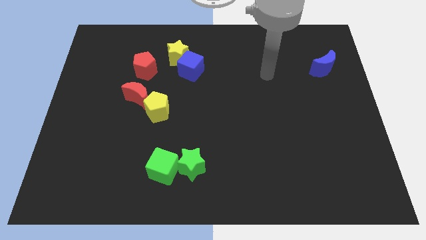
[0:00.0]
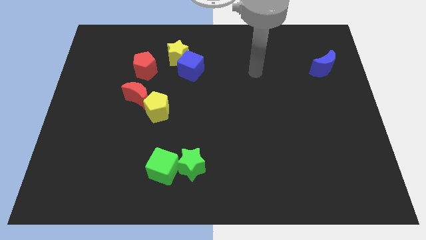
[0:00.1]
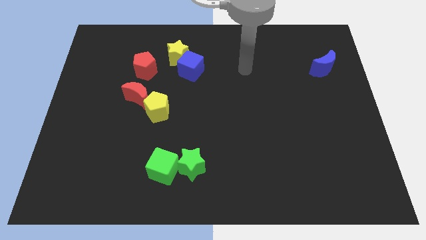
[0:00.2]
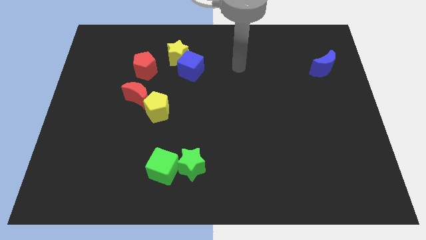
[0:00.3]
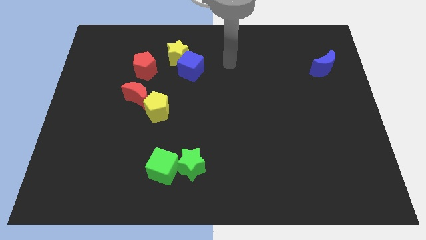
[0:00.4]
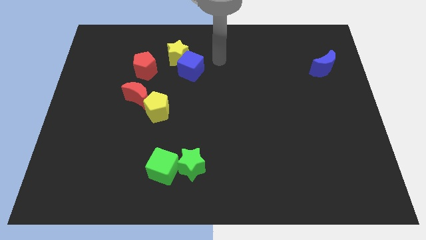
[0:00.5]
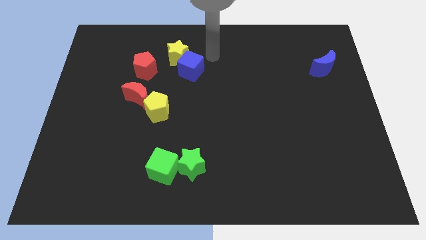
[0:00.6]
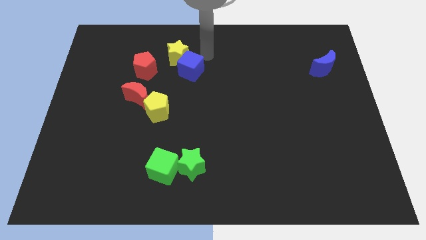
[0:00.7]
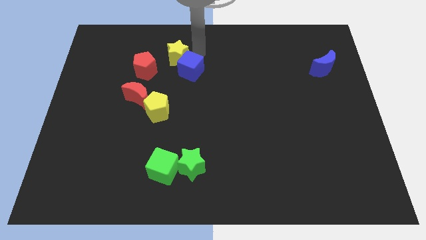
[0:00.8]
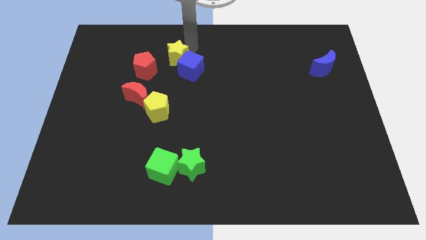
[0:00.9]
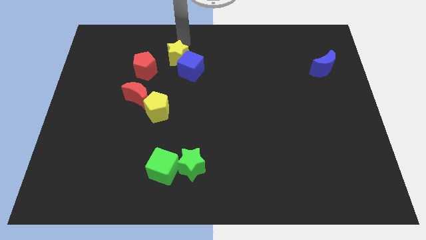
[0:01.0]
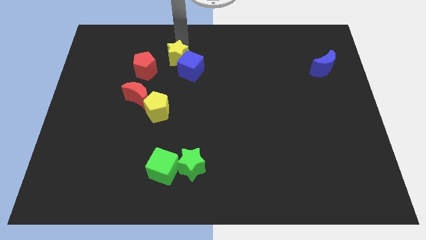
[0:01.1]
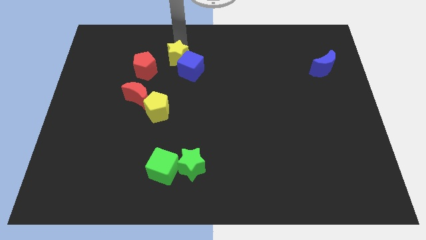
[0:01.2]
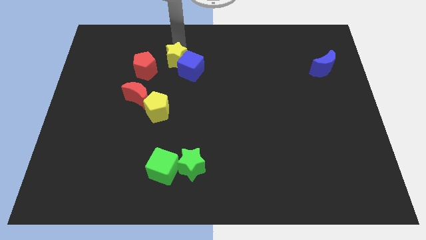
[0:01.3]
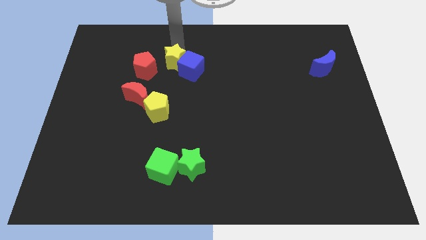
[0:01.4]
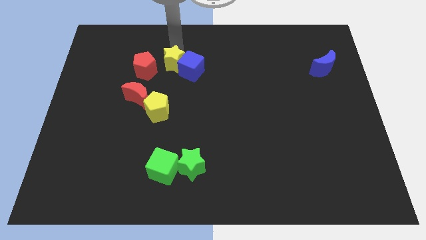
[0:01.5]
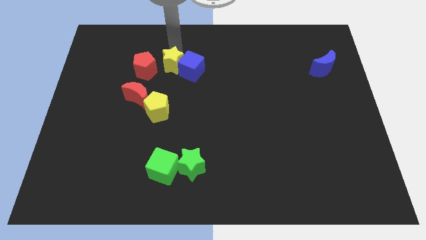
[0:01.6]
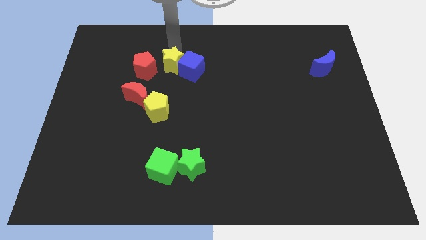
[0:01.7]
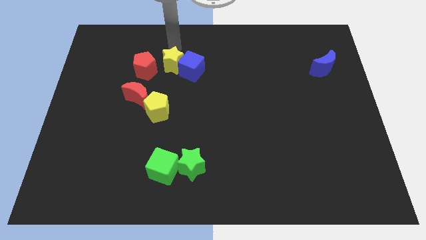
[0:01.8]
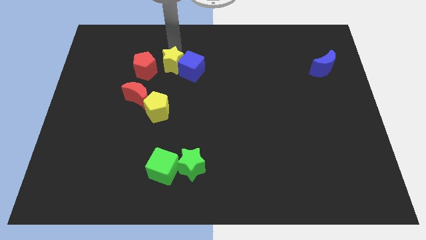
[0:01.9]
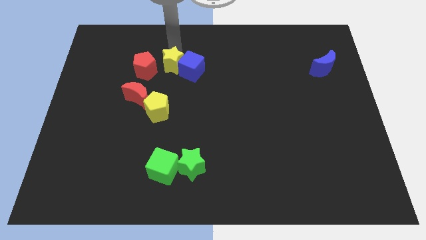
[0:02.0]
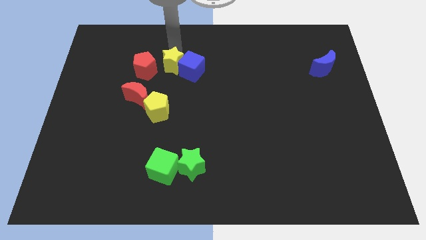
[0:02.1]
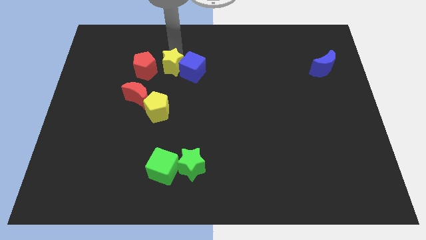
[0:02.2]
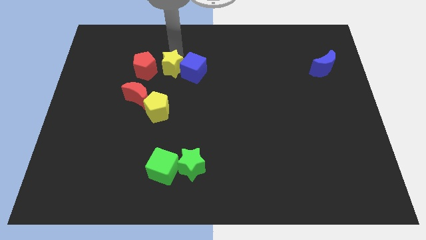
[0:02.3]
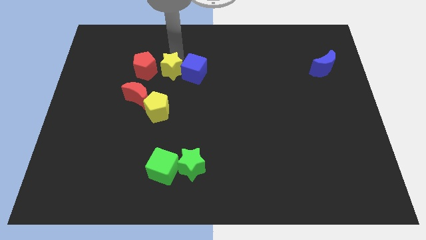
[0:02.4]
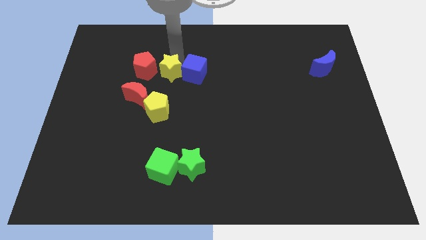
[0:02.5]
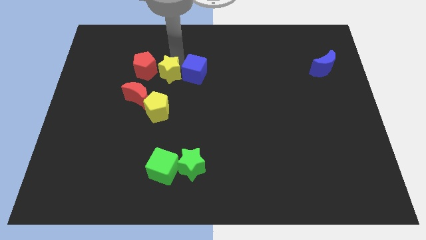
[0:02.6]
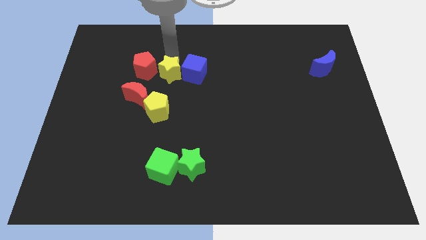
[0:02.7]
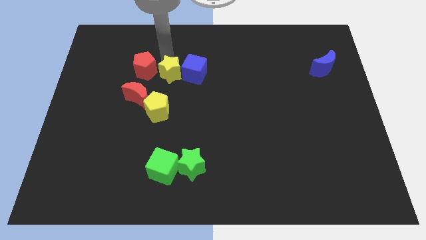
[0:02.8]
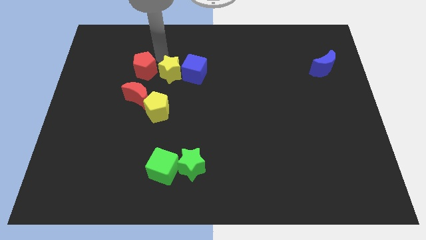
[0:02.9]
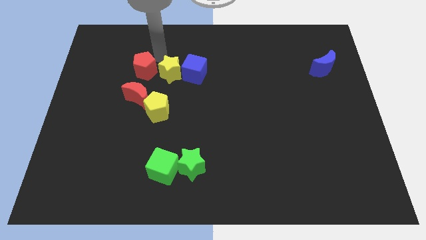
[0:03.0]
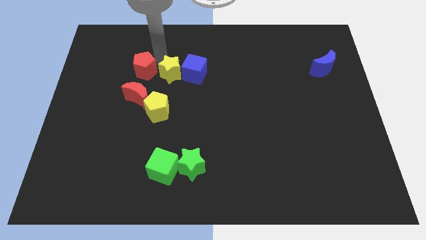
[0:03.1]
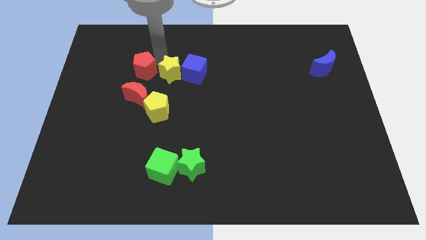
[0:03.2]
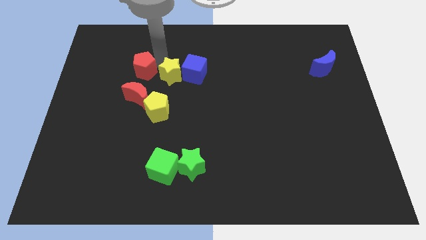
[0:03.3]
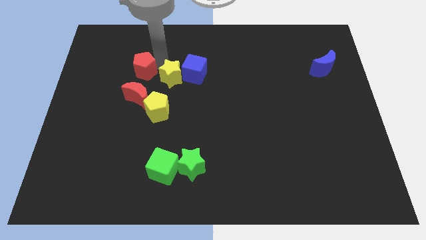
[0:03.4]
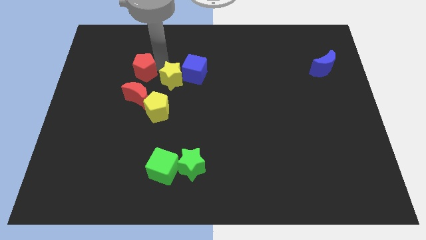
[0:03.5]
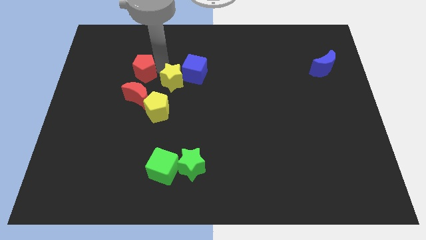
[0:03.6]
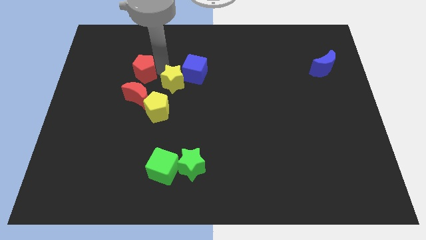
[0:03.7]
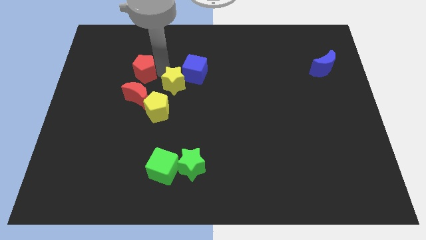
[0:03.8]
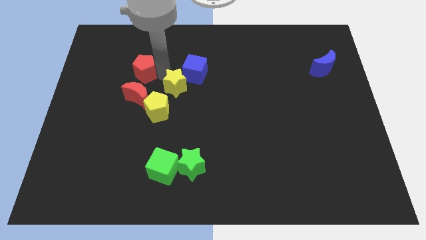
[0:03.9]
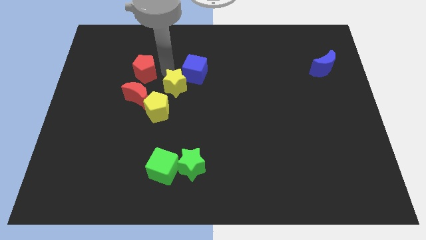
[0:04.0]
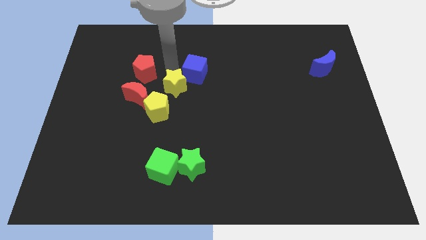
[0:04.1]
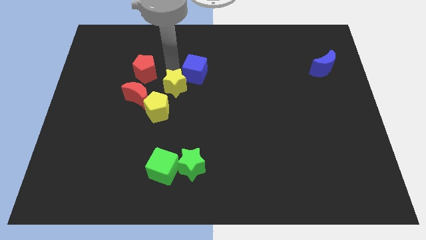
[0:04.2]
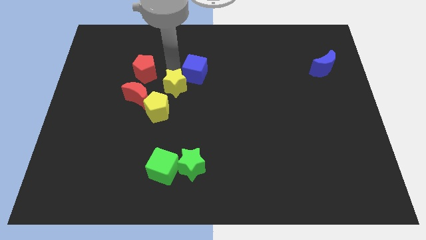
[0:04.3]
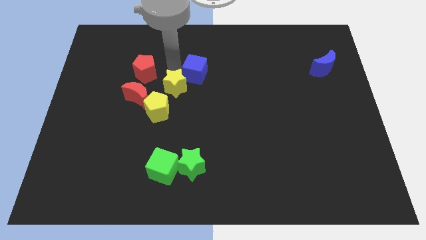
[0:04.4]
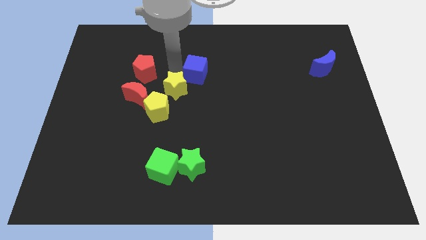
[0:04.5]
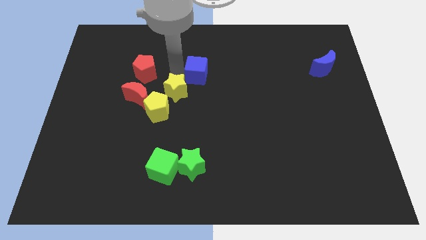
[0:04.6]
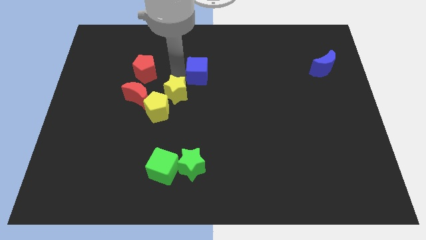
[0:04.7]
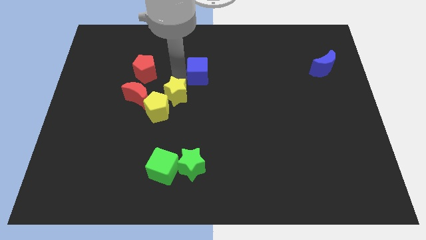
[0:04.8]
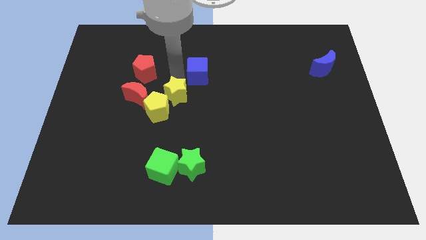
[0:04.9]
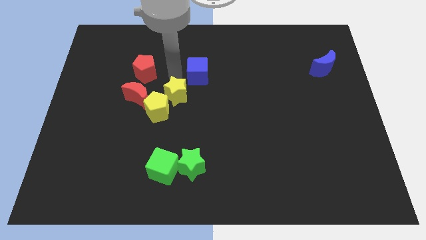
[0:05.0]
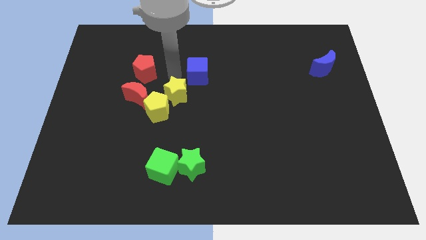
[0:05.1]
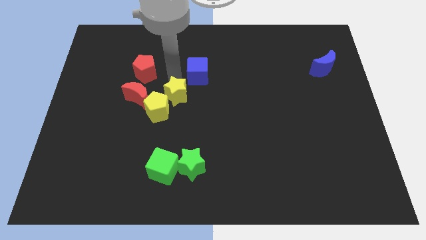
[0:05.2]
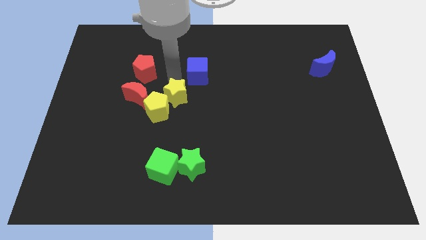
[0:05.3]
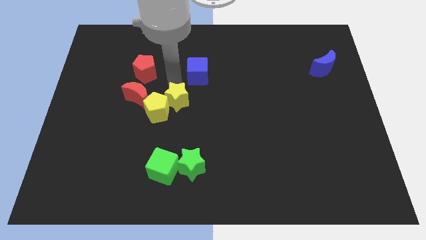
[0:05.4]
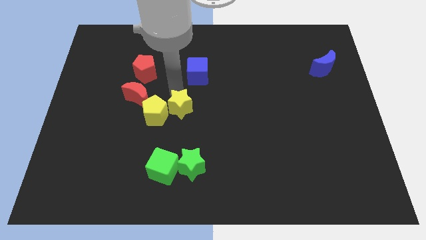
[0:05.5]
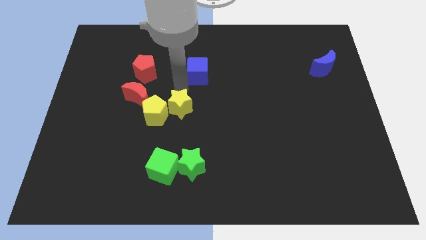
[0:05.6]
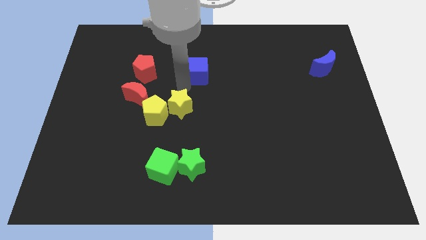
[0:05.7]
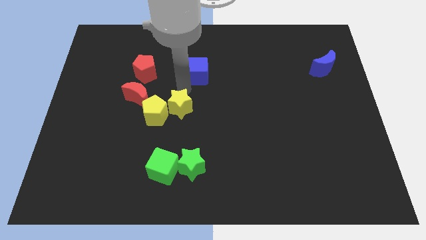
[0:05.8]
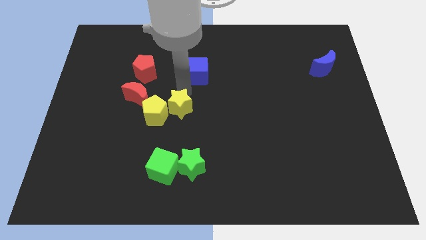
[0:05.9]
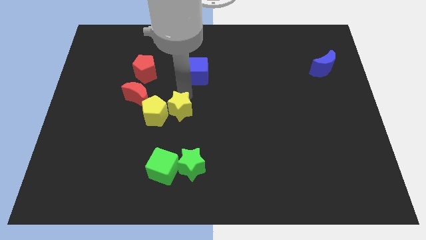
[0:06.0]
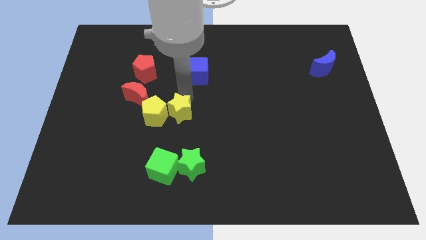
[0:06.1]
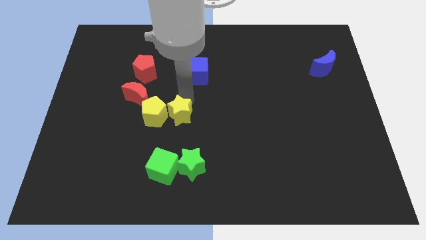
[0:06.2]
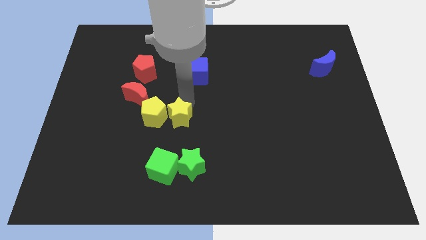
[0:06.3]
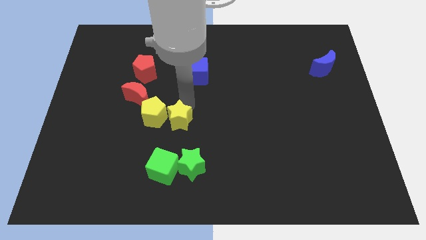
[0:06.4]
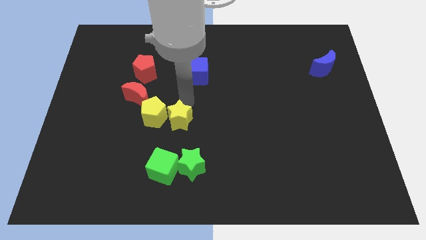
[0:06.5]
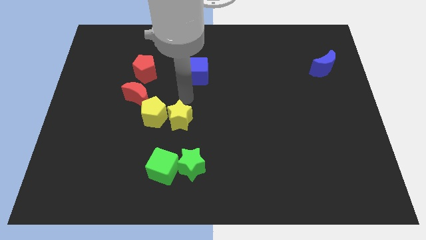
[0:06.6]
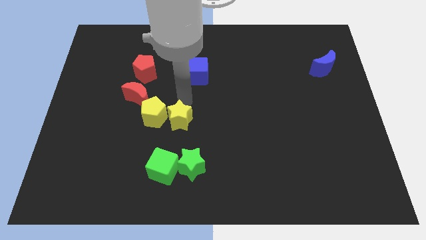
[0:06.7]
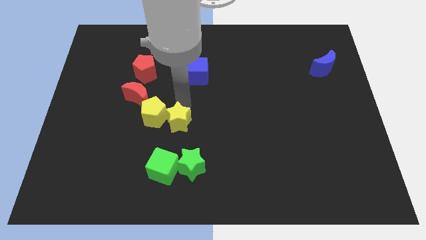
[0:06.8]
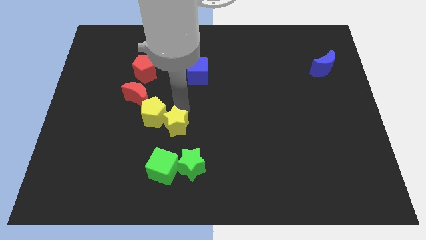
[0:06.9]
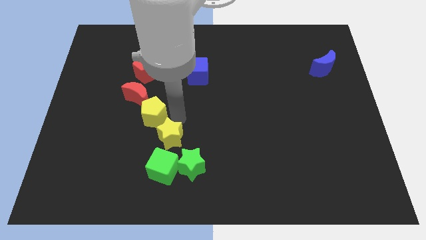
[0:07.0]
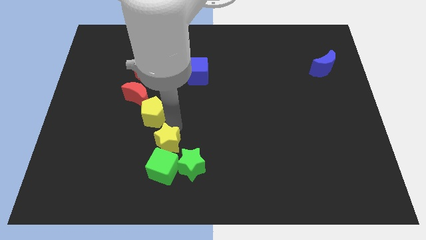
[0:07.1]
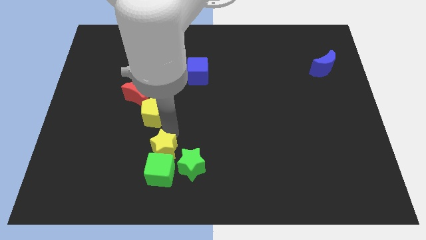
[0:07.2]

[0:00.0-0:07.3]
push the yellow star towards the green cube

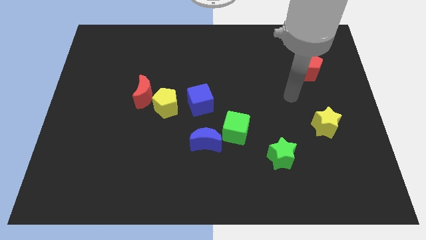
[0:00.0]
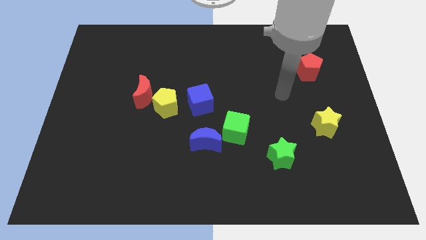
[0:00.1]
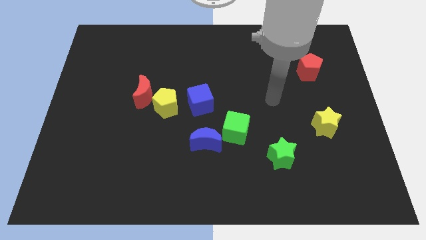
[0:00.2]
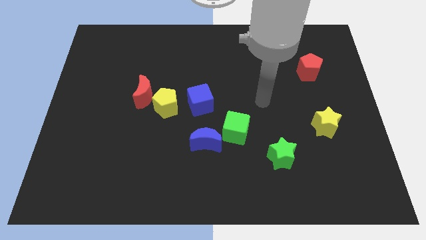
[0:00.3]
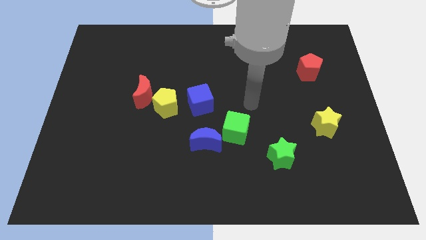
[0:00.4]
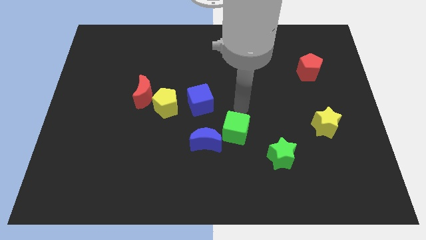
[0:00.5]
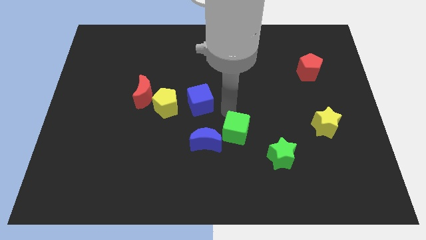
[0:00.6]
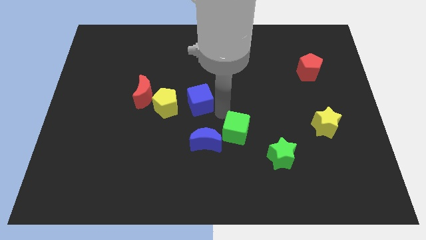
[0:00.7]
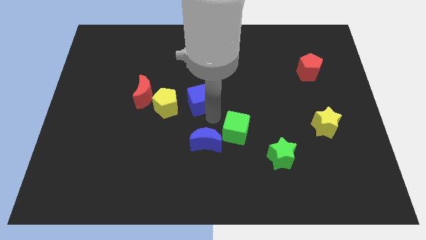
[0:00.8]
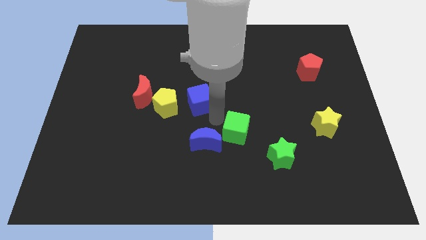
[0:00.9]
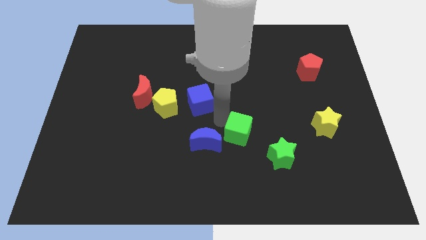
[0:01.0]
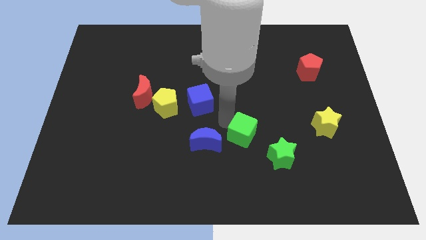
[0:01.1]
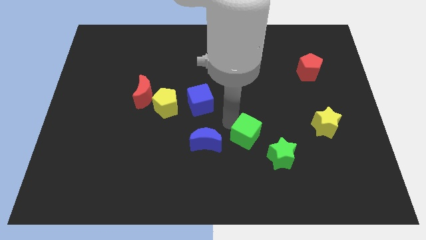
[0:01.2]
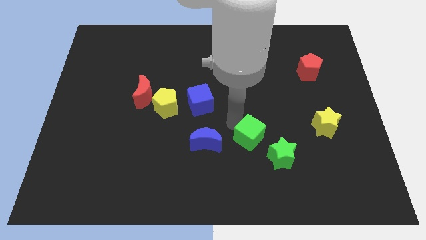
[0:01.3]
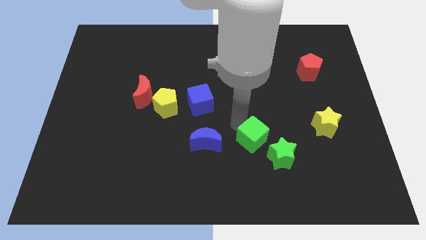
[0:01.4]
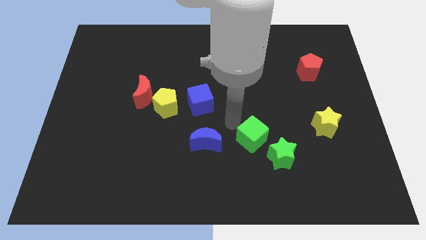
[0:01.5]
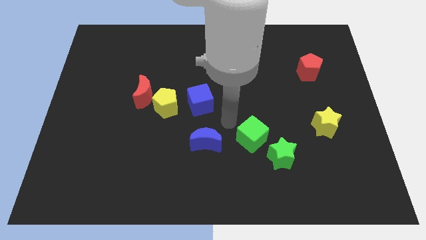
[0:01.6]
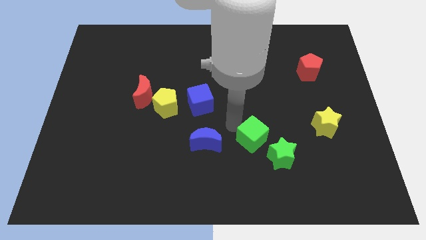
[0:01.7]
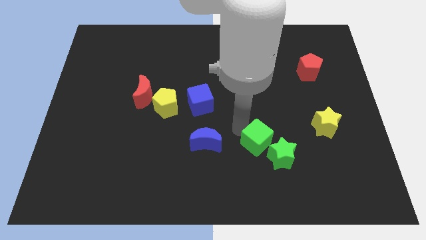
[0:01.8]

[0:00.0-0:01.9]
put the green cube next to the green star
